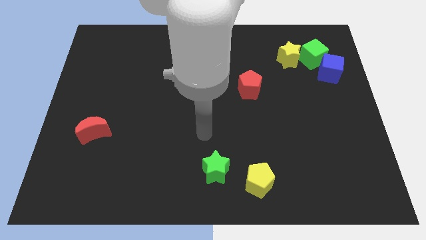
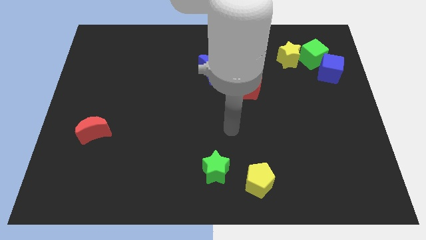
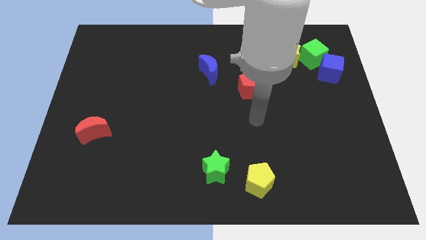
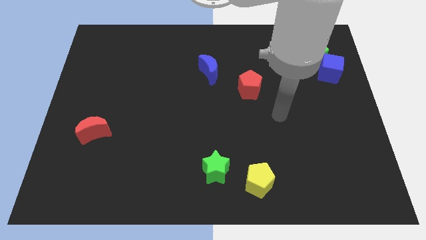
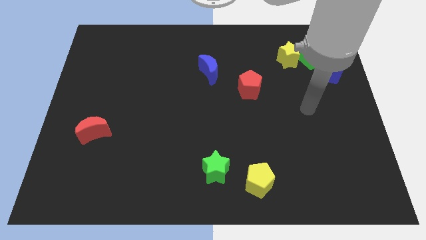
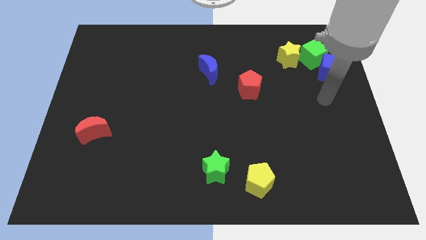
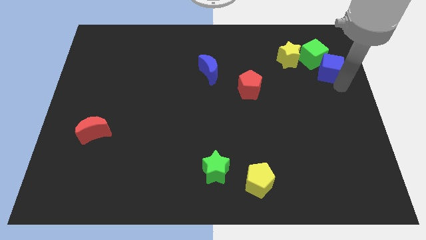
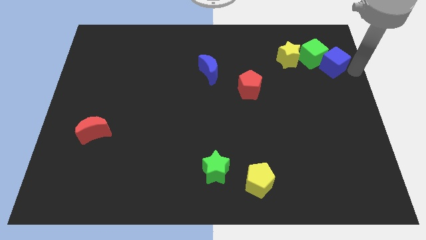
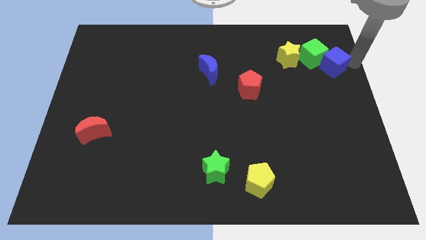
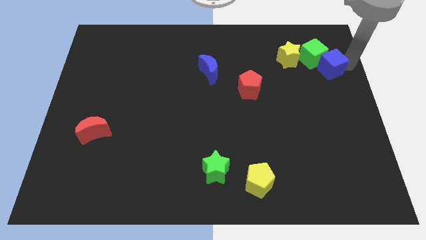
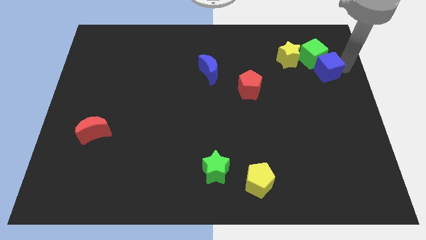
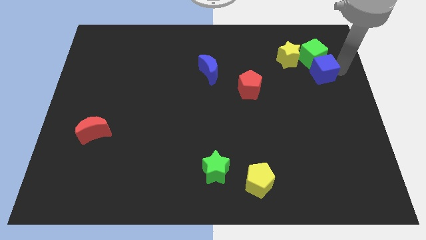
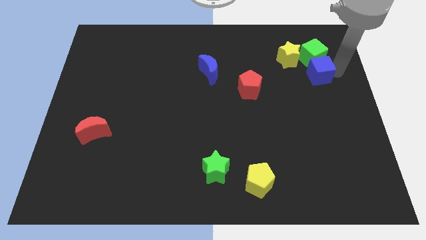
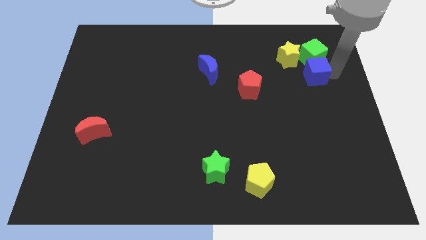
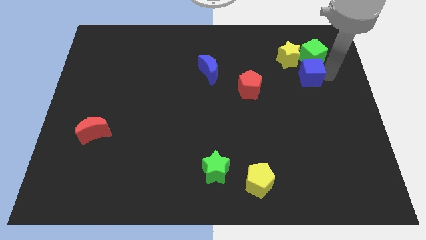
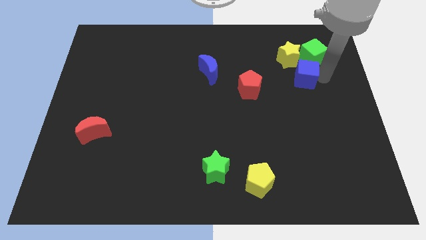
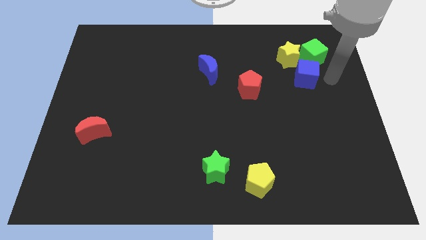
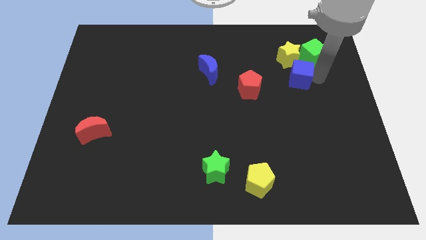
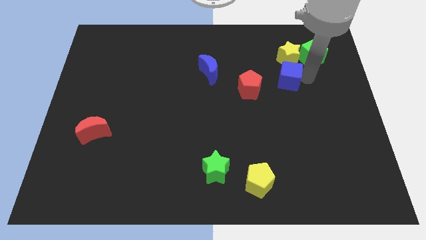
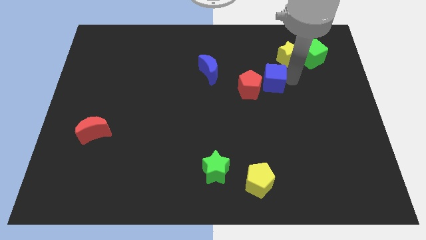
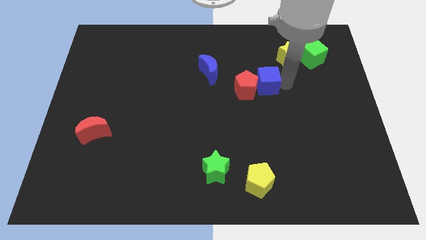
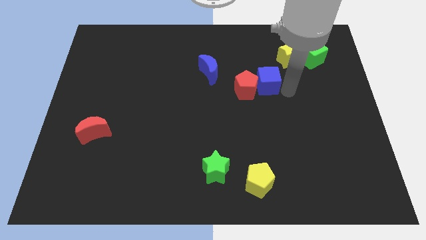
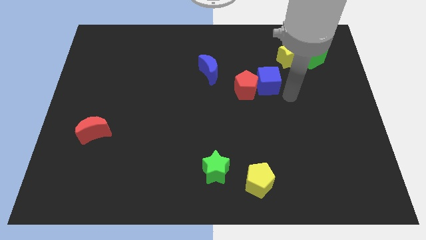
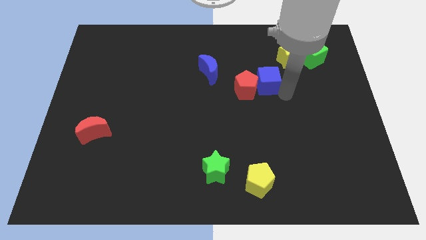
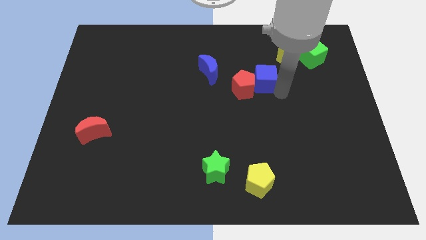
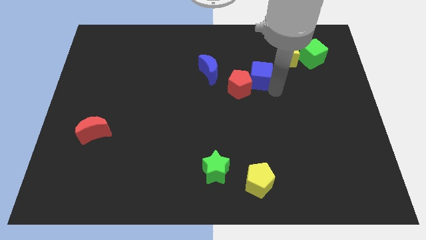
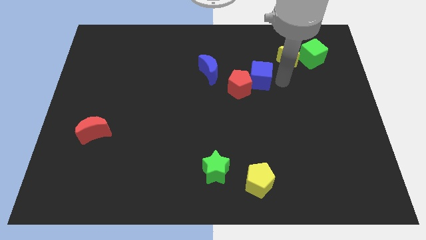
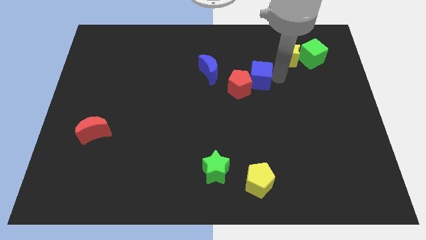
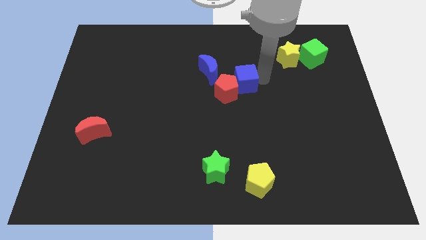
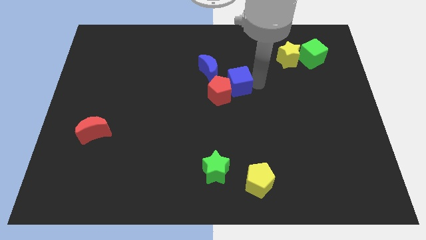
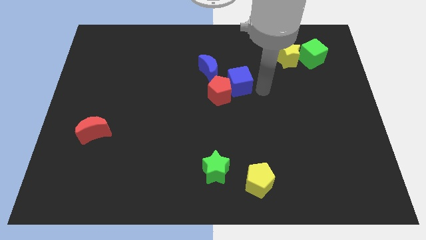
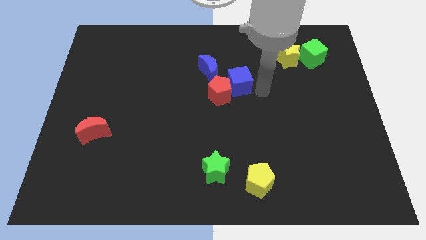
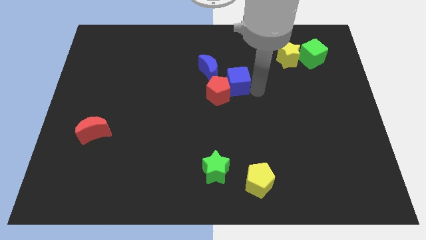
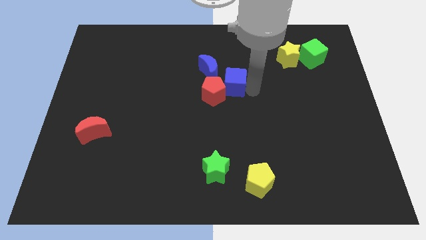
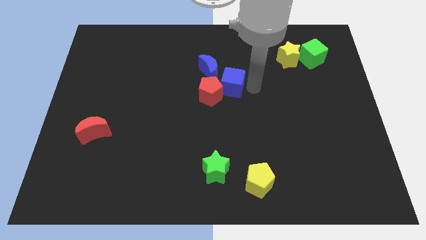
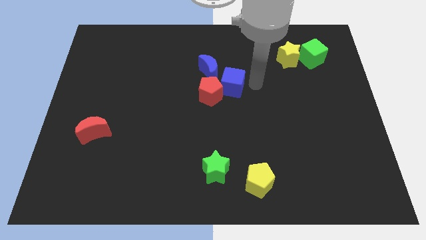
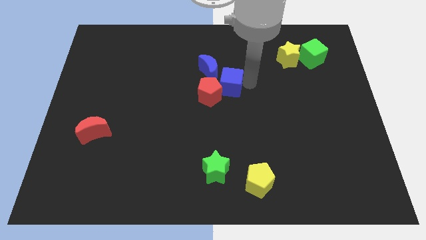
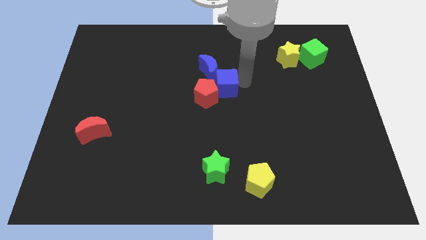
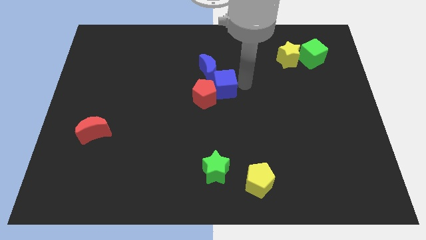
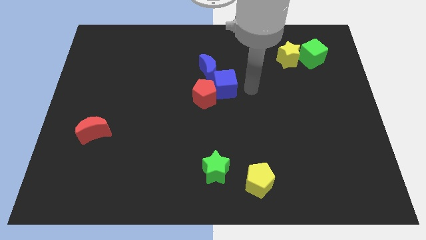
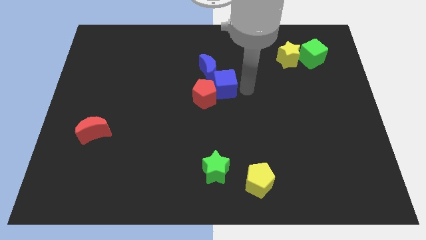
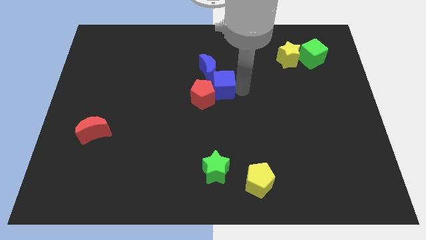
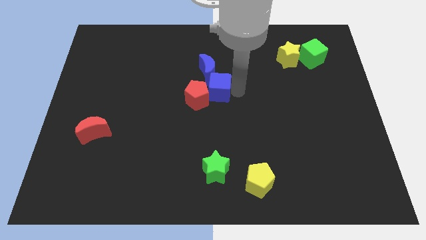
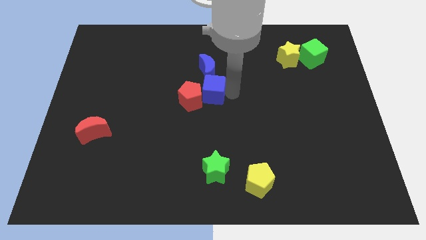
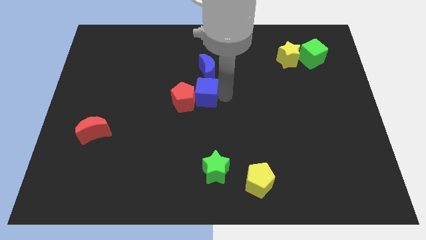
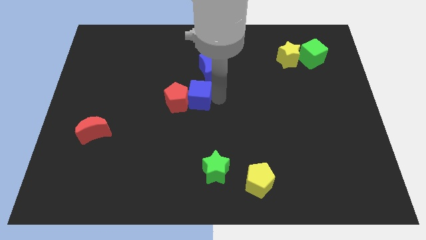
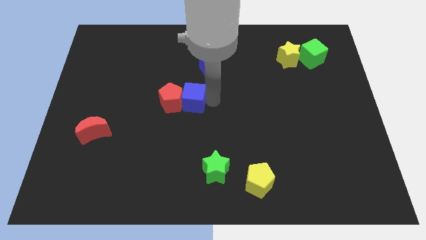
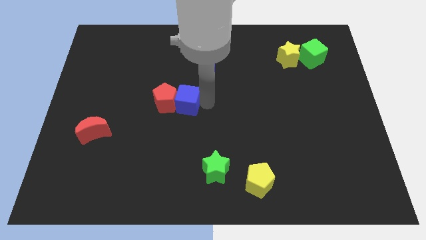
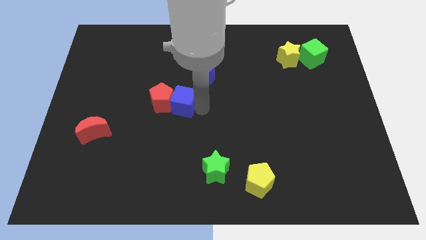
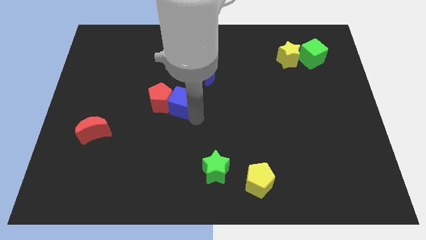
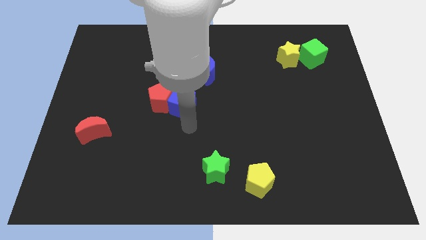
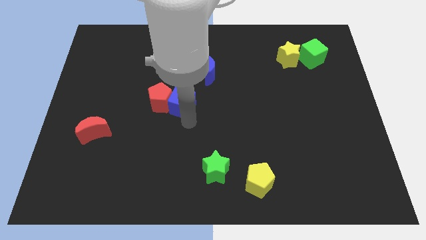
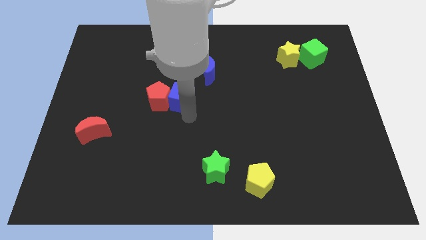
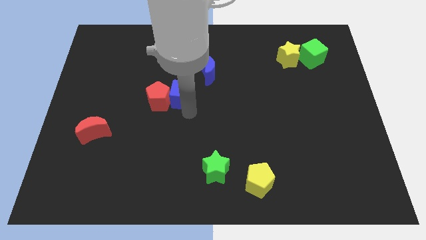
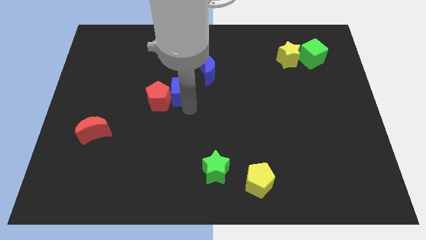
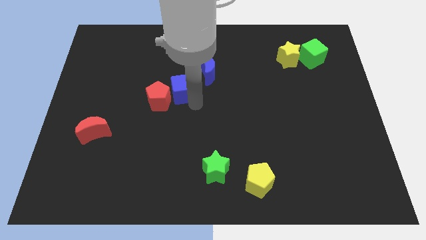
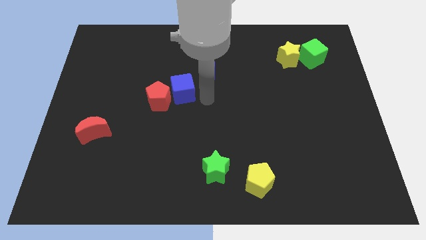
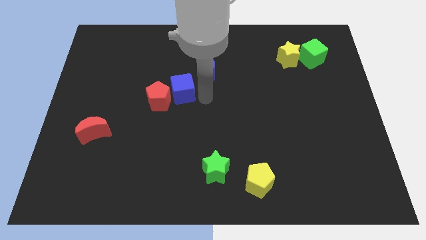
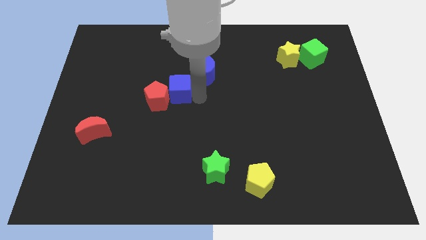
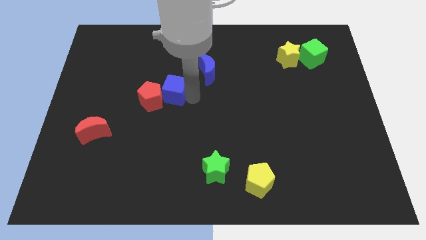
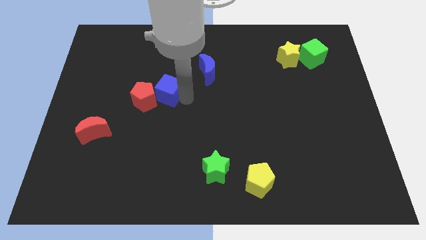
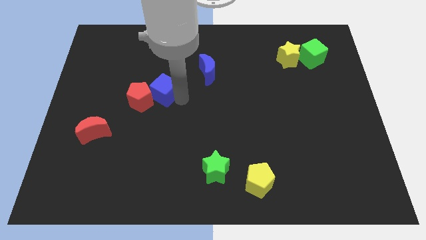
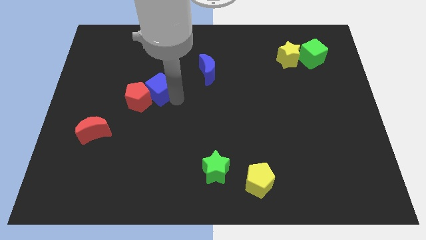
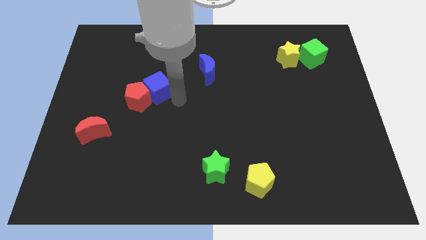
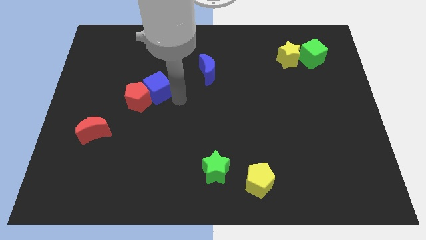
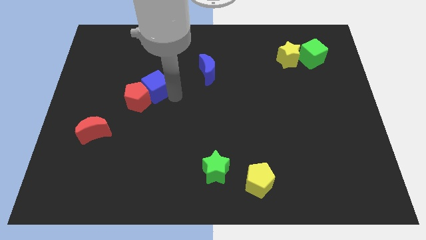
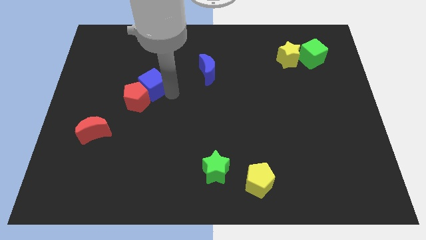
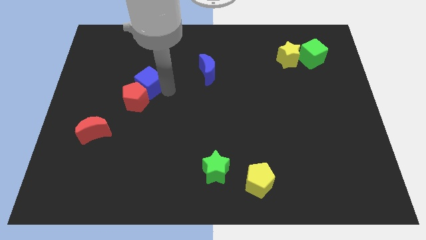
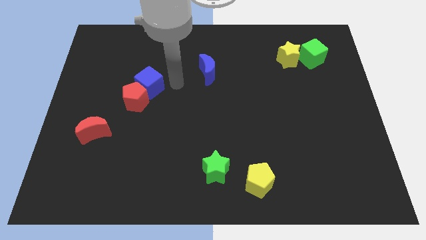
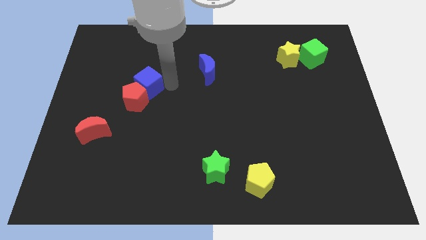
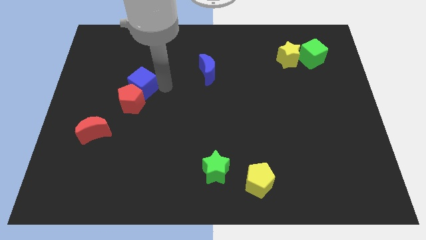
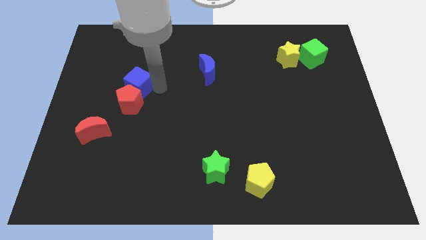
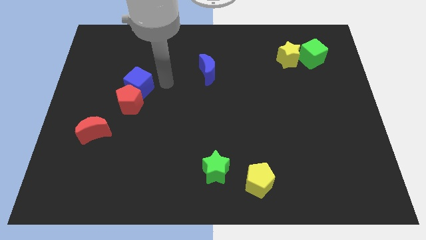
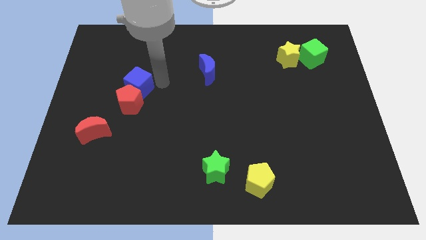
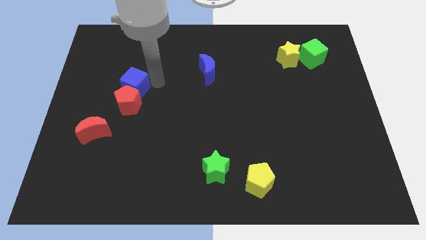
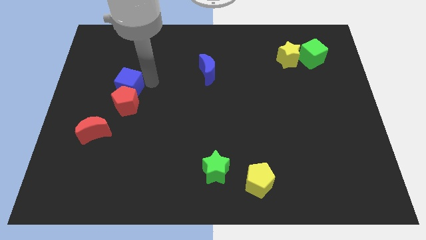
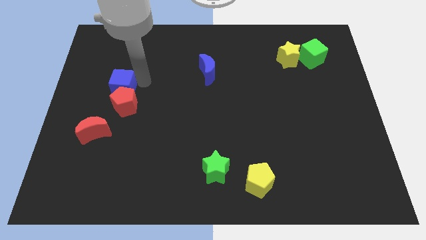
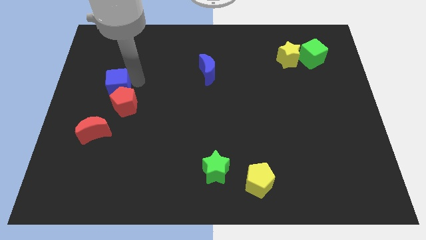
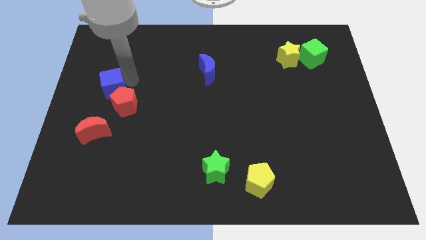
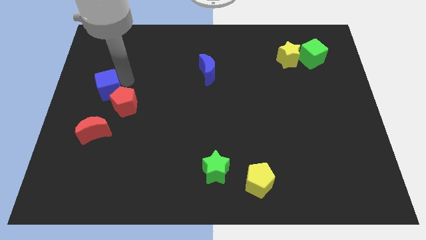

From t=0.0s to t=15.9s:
push the blue cube to the left side
